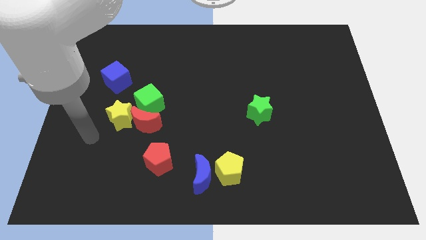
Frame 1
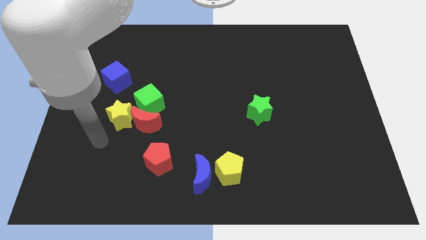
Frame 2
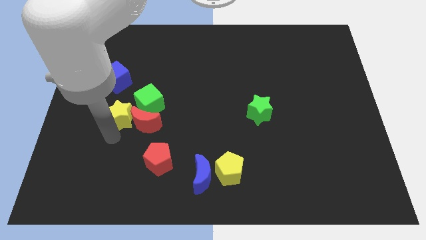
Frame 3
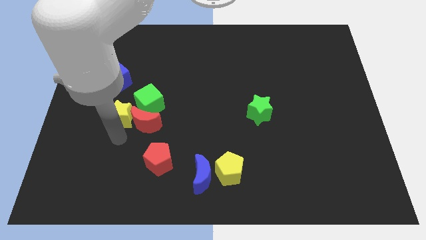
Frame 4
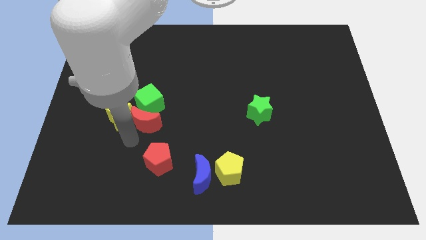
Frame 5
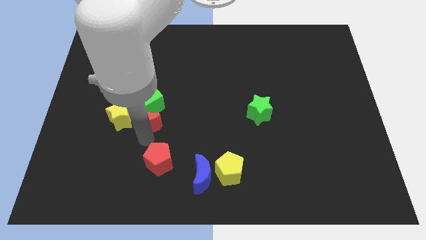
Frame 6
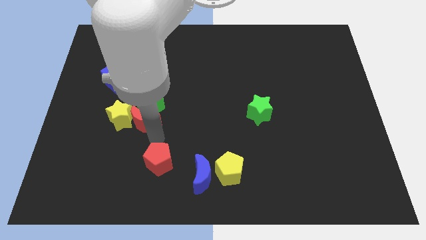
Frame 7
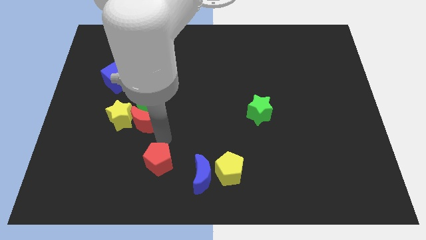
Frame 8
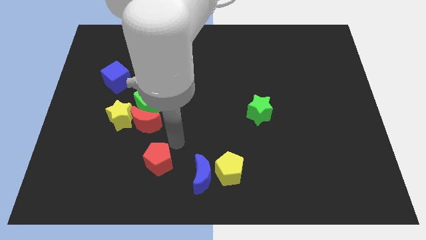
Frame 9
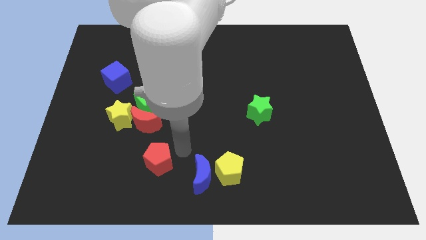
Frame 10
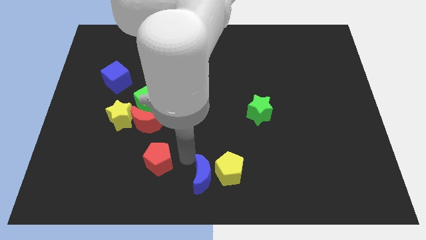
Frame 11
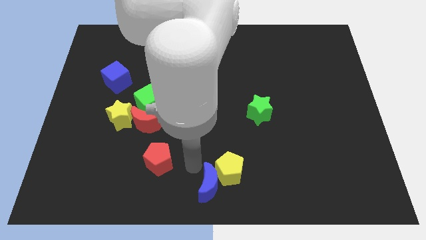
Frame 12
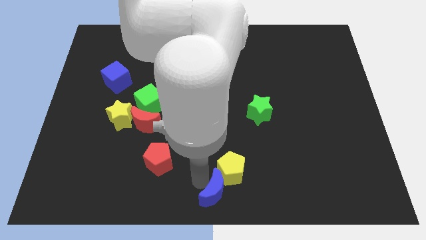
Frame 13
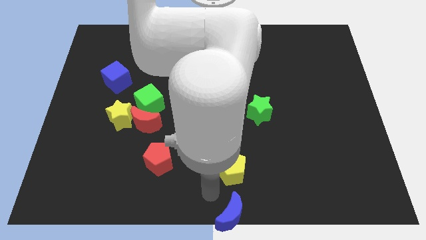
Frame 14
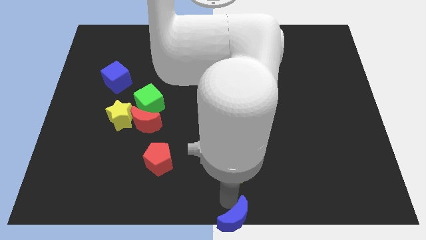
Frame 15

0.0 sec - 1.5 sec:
separate the yellow pentagon from the blue moon

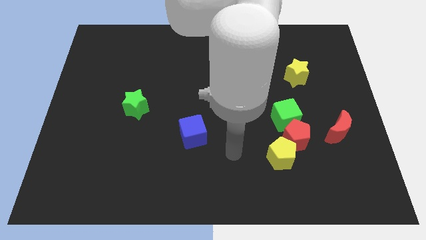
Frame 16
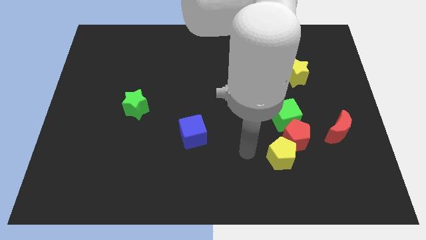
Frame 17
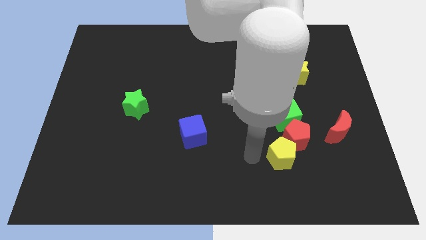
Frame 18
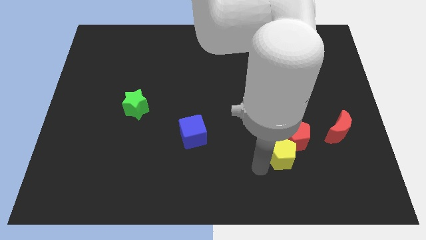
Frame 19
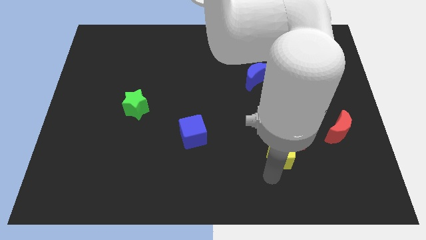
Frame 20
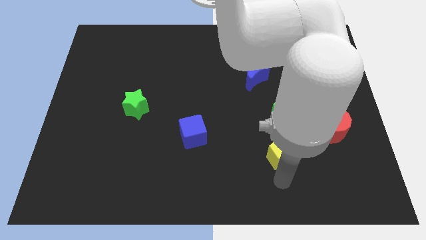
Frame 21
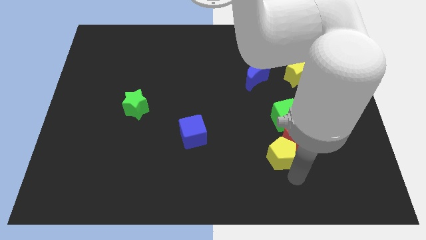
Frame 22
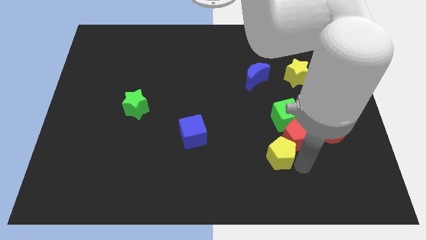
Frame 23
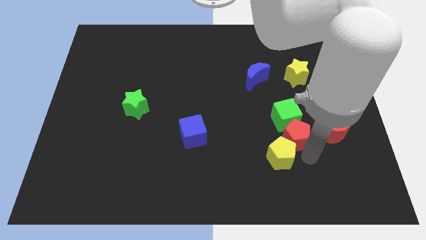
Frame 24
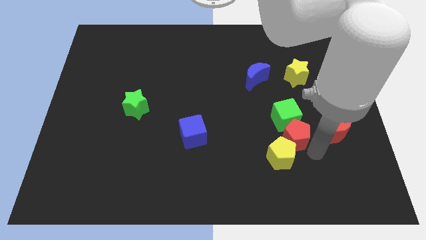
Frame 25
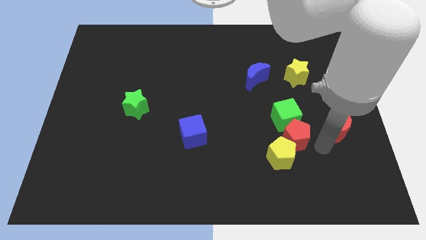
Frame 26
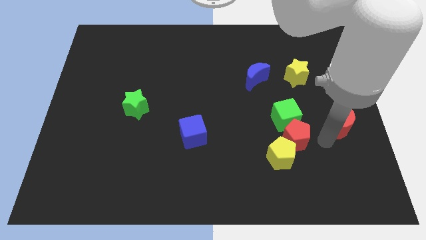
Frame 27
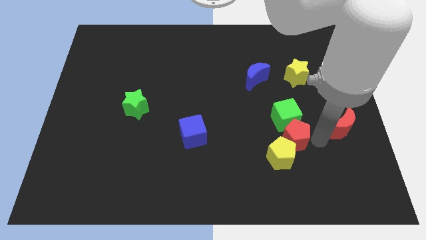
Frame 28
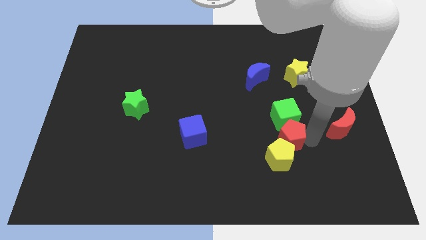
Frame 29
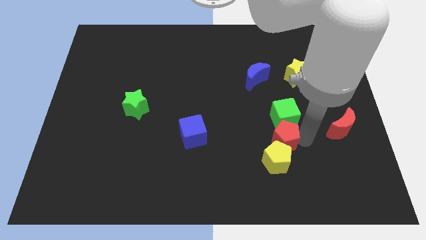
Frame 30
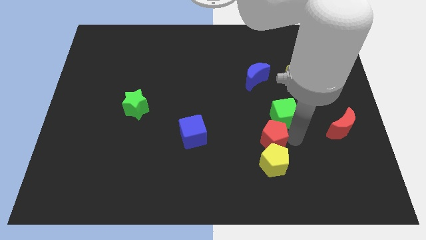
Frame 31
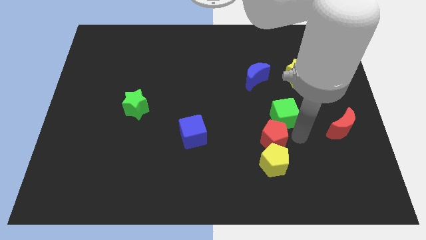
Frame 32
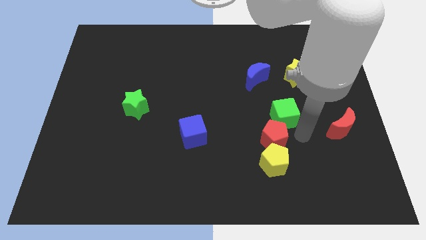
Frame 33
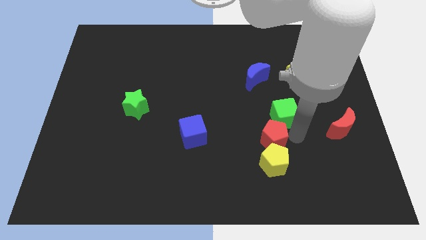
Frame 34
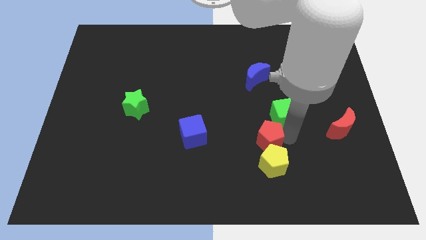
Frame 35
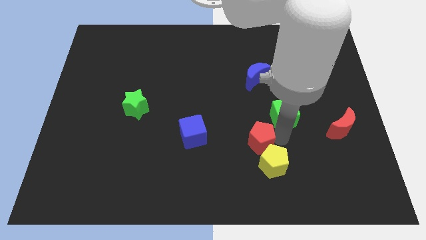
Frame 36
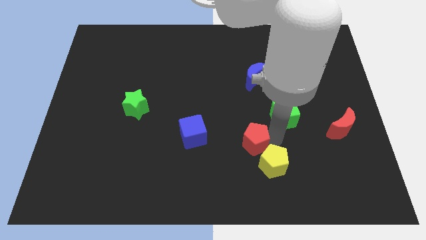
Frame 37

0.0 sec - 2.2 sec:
separate the red pentagon from the group of blocks

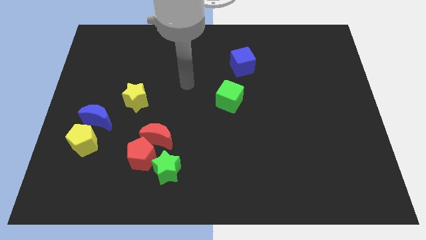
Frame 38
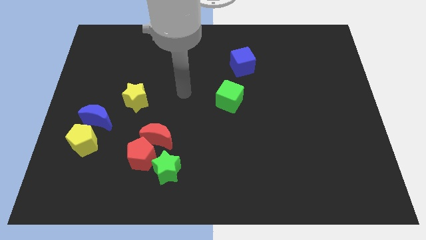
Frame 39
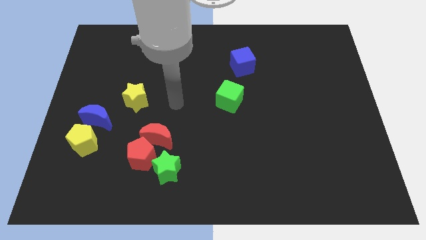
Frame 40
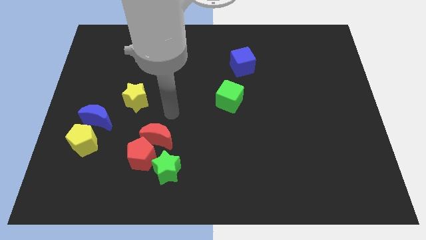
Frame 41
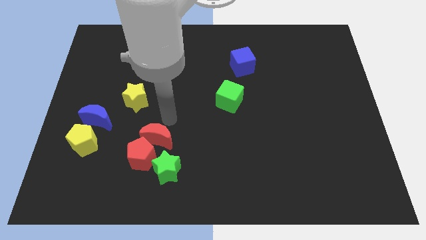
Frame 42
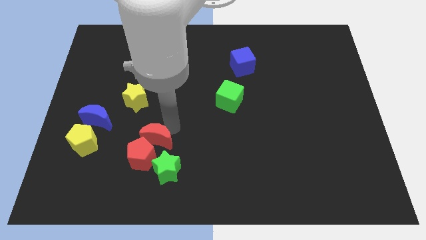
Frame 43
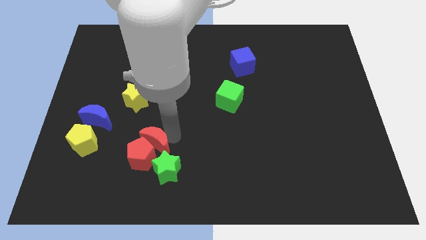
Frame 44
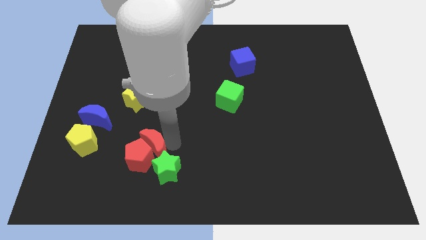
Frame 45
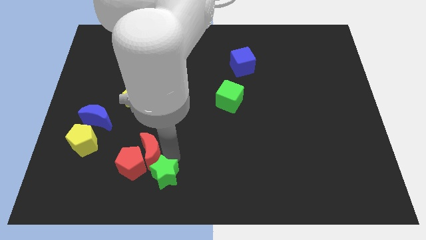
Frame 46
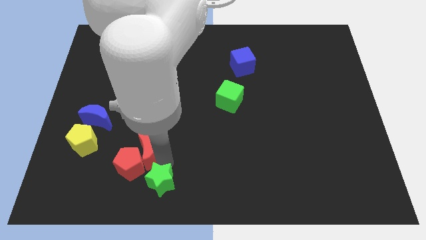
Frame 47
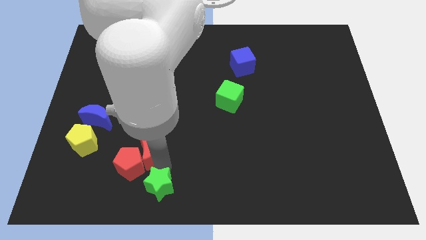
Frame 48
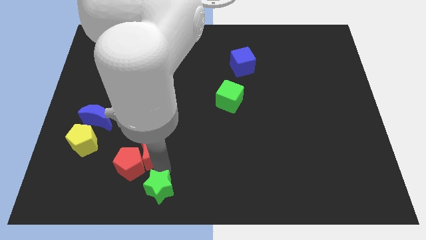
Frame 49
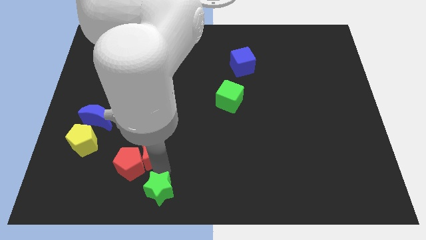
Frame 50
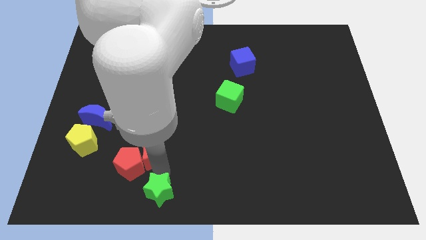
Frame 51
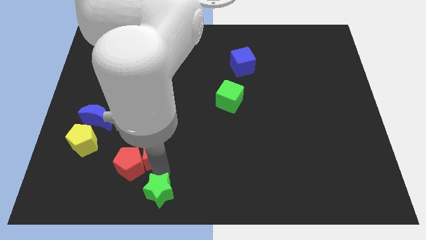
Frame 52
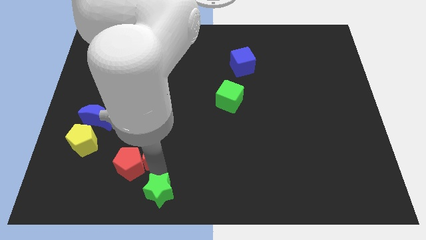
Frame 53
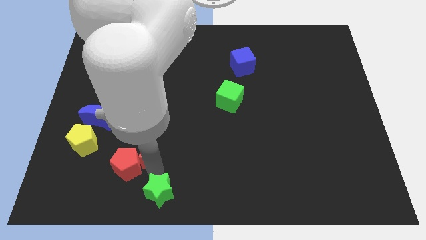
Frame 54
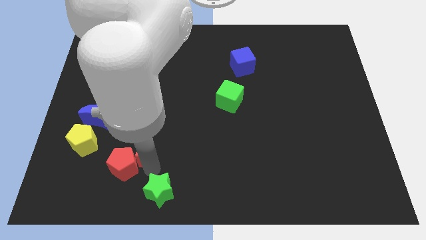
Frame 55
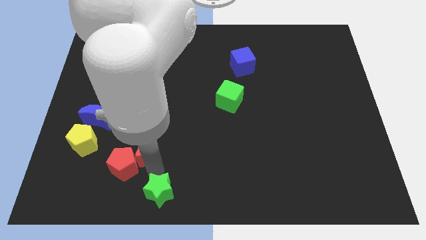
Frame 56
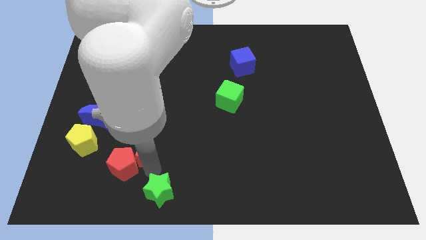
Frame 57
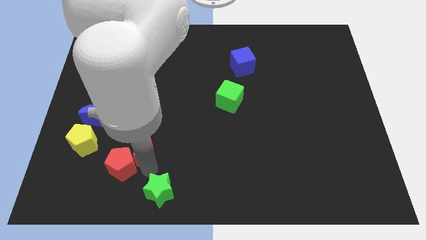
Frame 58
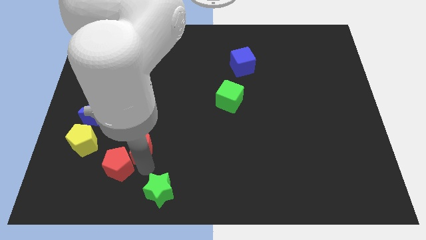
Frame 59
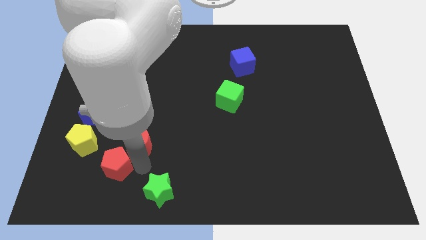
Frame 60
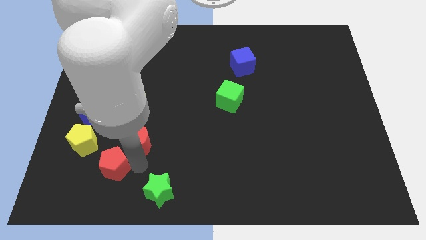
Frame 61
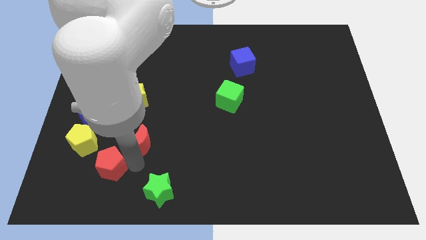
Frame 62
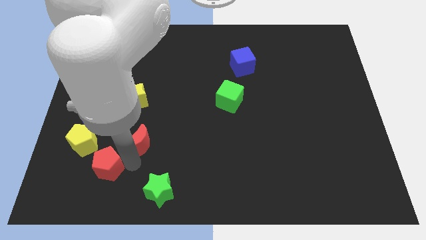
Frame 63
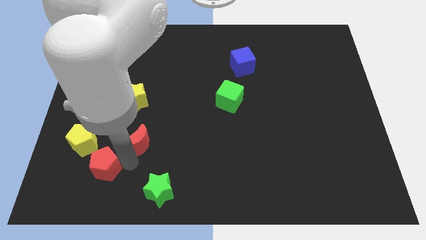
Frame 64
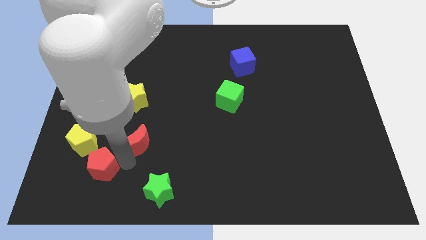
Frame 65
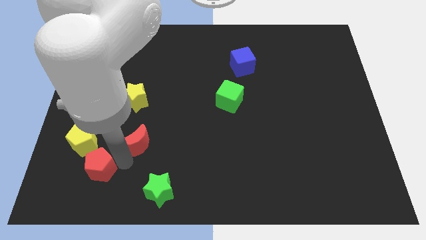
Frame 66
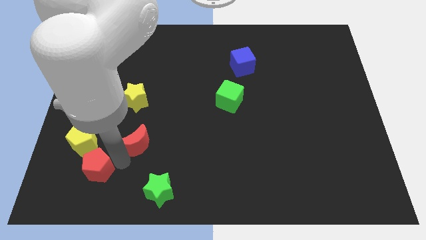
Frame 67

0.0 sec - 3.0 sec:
separate the red pentagon from the red moon and green star

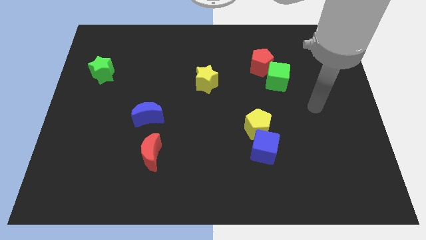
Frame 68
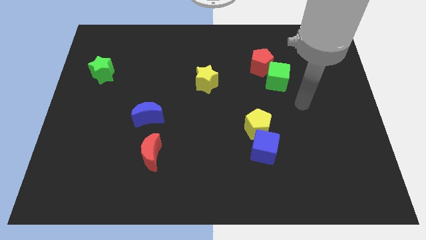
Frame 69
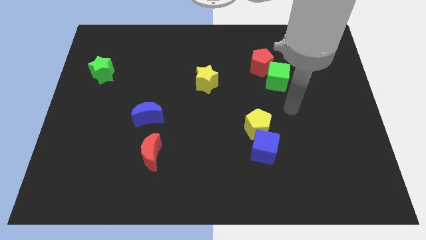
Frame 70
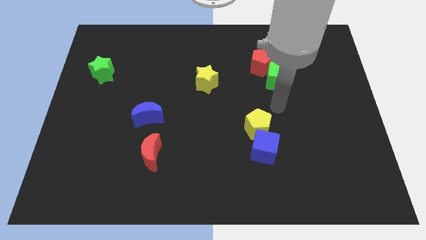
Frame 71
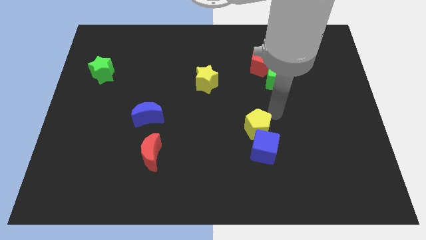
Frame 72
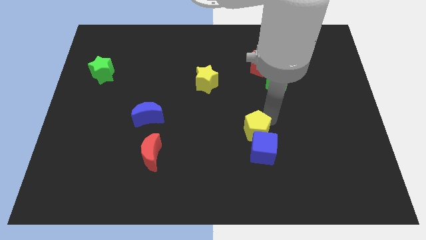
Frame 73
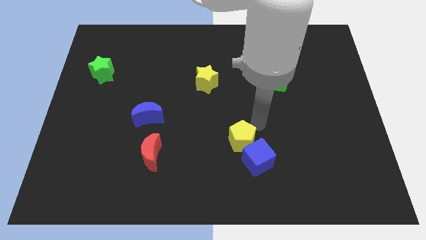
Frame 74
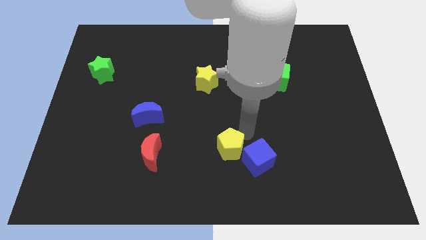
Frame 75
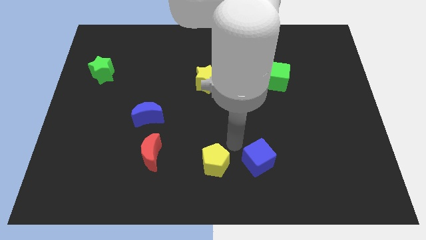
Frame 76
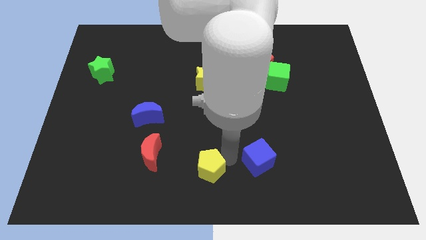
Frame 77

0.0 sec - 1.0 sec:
pull the blue cube apart from the yellow pentagon

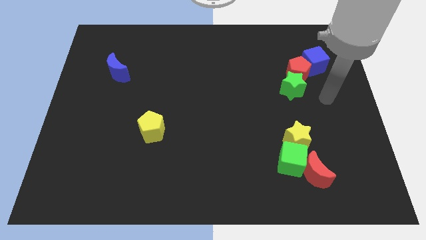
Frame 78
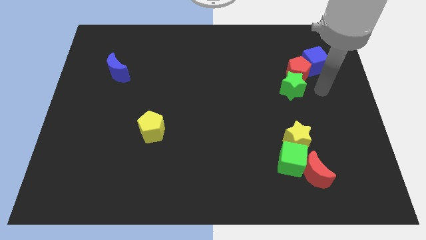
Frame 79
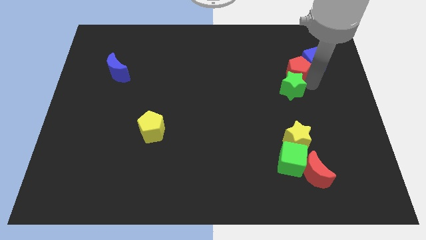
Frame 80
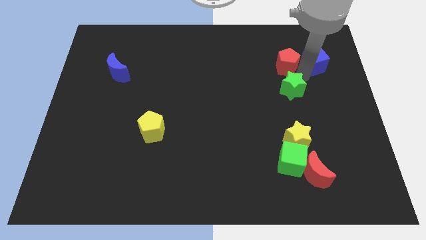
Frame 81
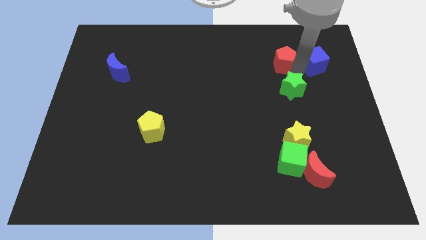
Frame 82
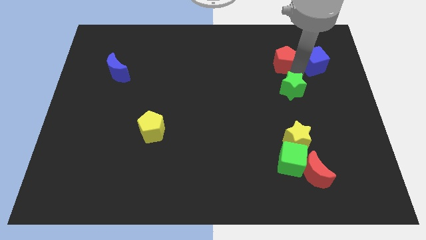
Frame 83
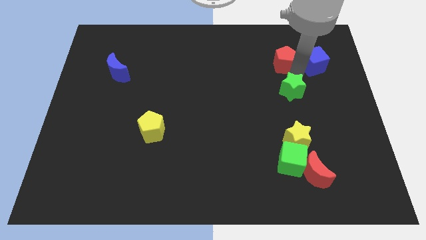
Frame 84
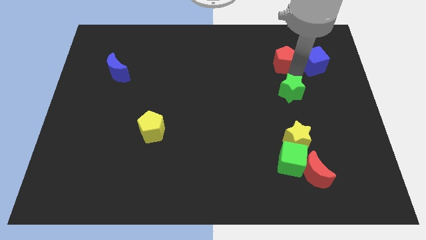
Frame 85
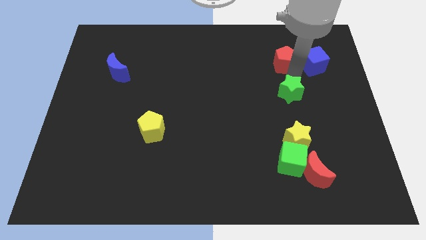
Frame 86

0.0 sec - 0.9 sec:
pull the green star apart from the red pentagon

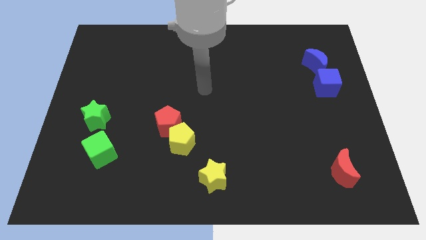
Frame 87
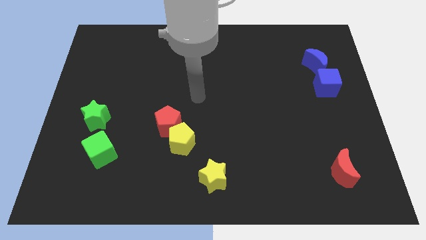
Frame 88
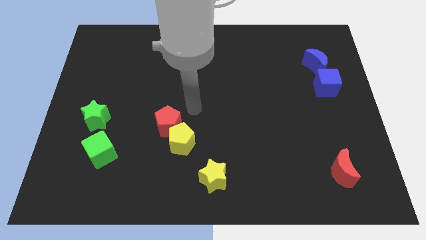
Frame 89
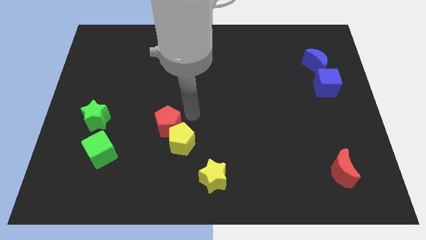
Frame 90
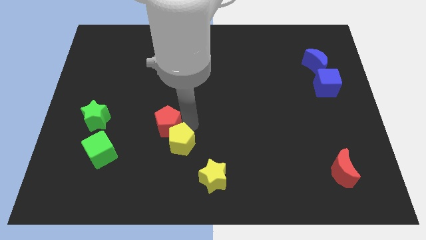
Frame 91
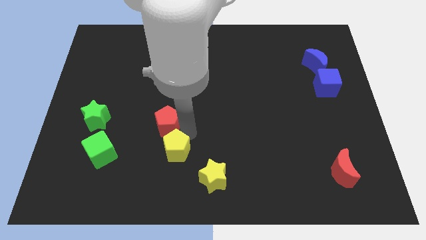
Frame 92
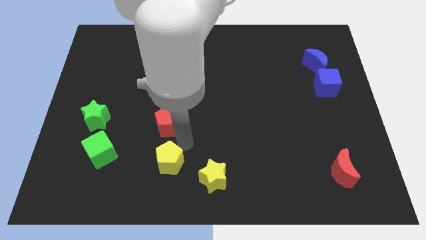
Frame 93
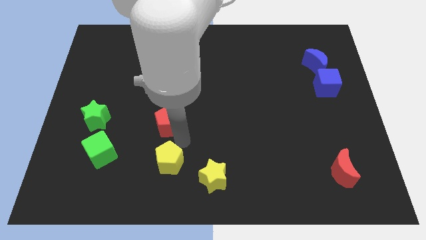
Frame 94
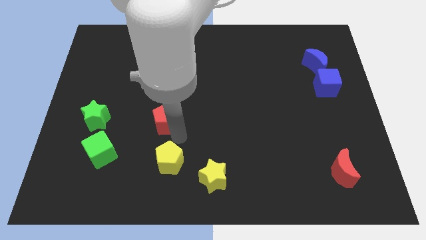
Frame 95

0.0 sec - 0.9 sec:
separate the red pentagon from the yellow pentagon
